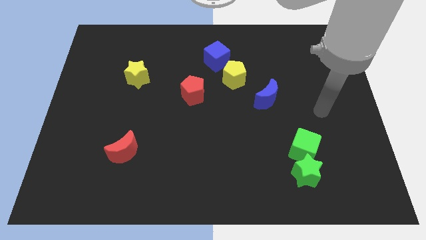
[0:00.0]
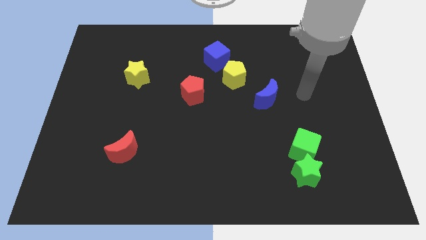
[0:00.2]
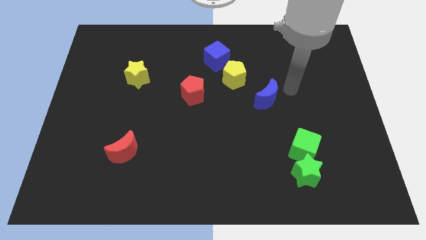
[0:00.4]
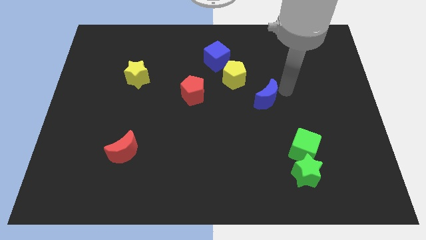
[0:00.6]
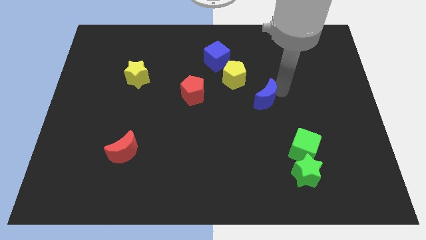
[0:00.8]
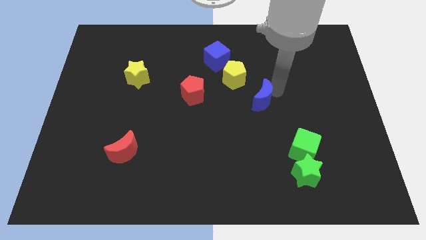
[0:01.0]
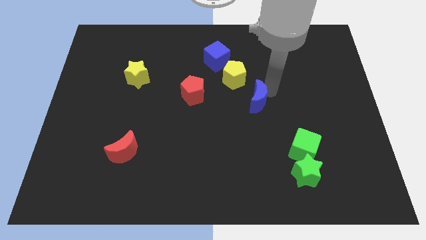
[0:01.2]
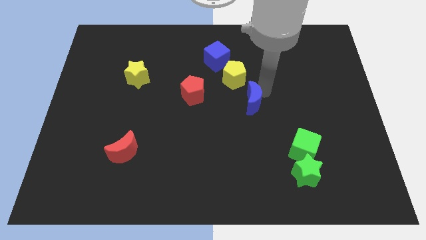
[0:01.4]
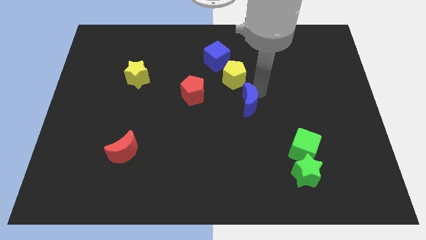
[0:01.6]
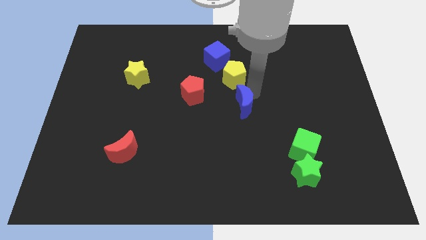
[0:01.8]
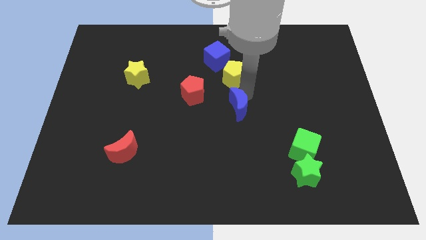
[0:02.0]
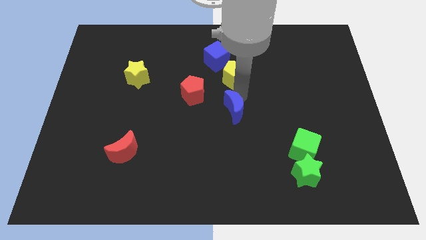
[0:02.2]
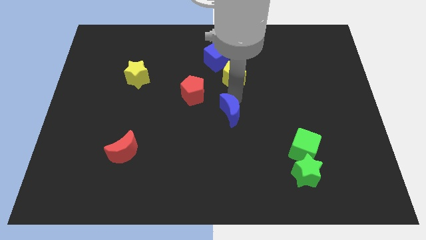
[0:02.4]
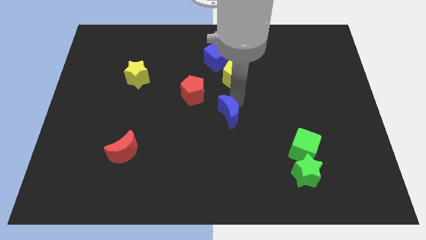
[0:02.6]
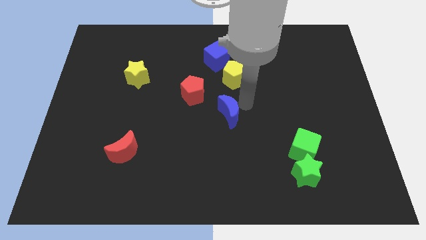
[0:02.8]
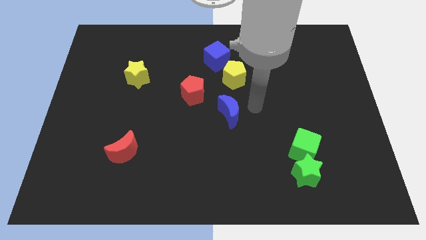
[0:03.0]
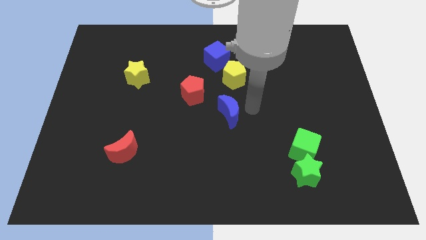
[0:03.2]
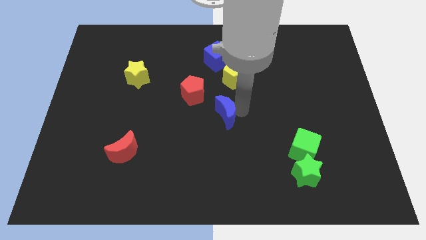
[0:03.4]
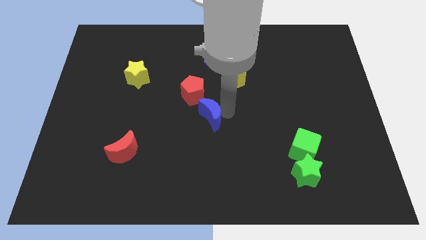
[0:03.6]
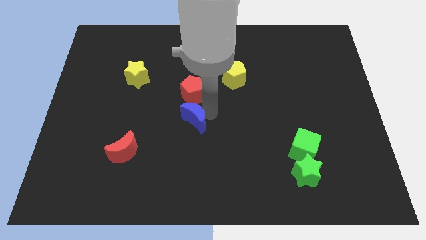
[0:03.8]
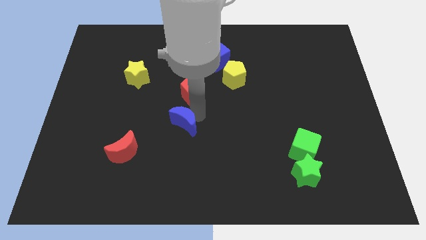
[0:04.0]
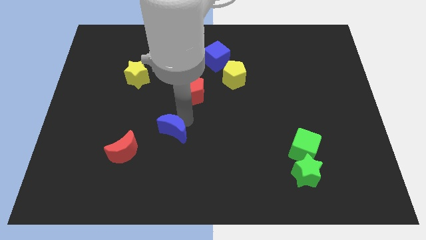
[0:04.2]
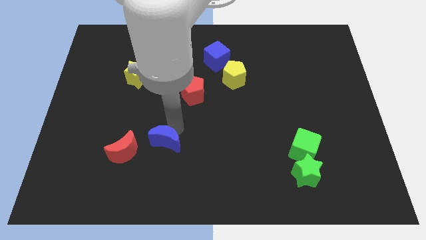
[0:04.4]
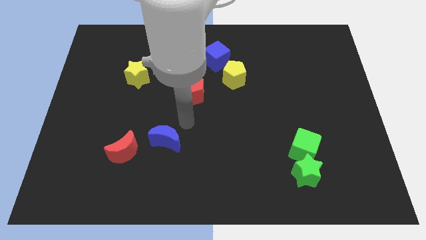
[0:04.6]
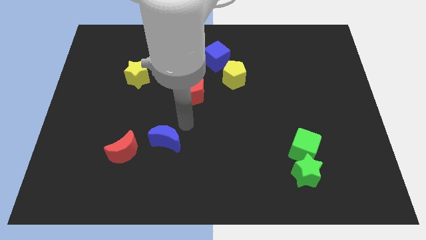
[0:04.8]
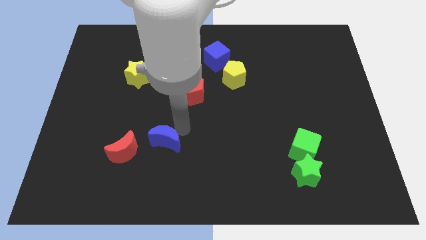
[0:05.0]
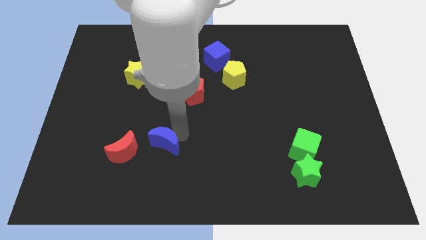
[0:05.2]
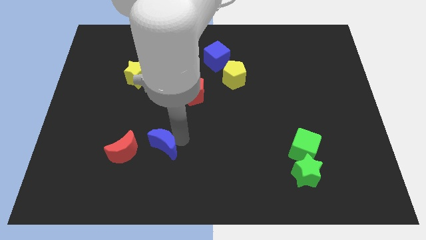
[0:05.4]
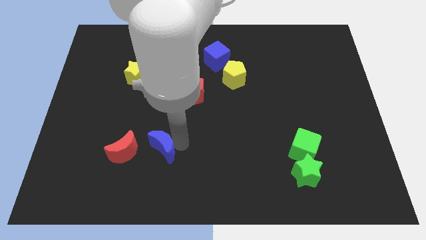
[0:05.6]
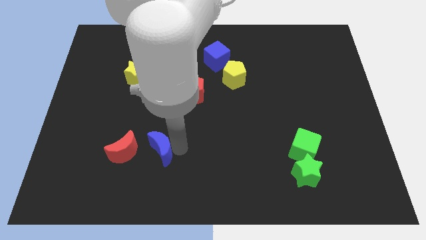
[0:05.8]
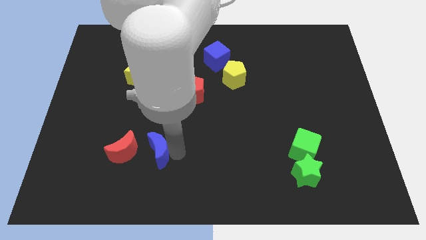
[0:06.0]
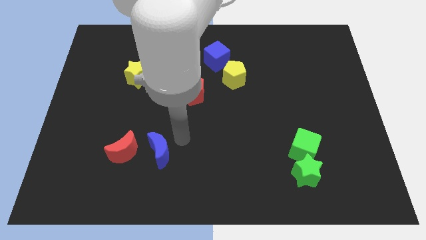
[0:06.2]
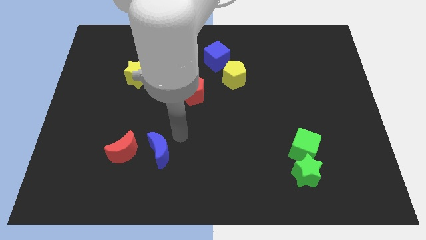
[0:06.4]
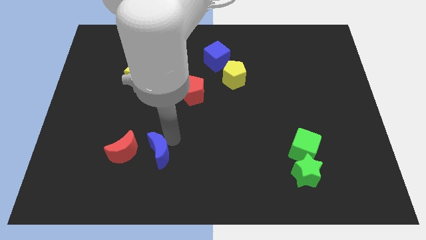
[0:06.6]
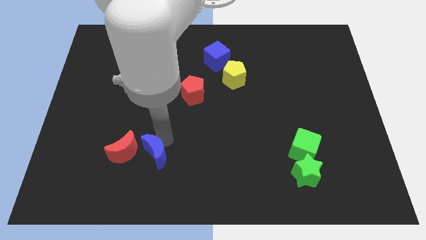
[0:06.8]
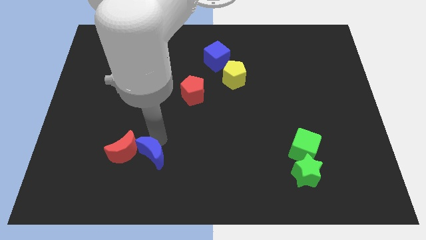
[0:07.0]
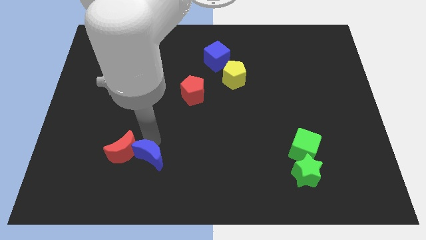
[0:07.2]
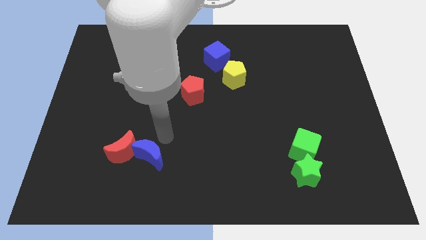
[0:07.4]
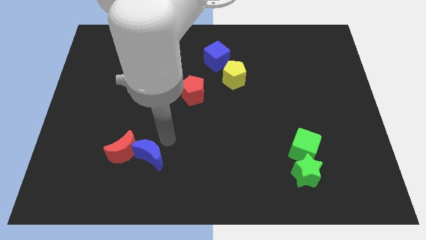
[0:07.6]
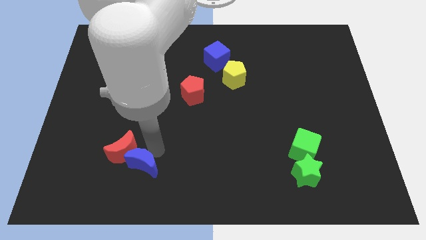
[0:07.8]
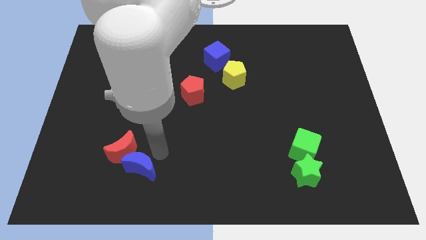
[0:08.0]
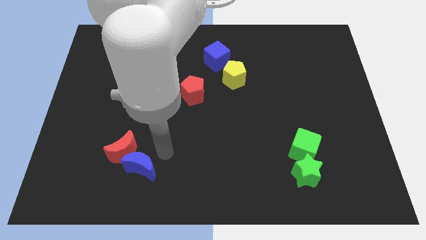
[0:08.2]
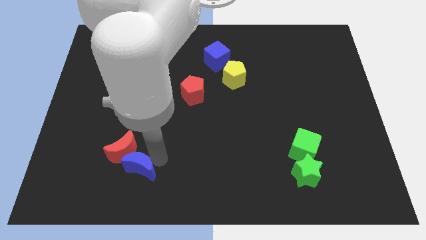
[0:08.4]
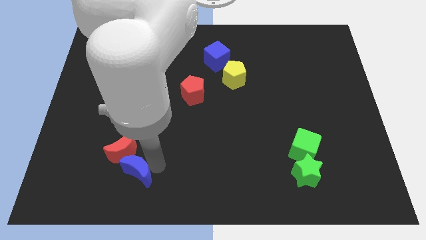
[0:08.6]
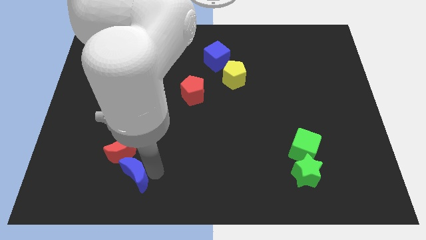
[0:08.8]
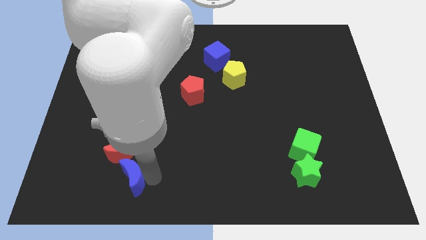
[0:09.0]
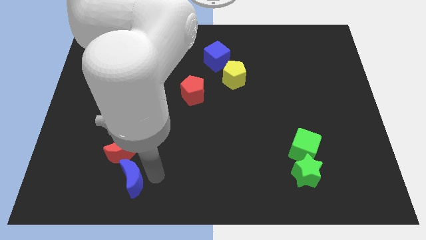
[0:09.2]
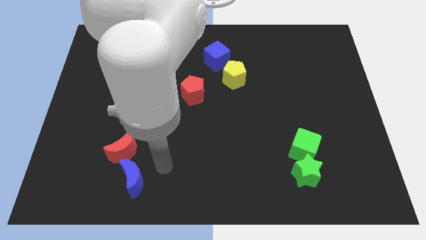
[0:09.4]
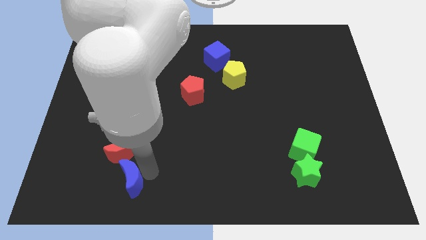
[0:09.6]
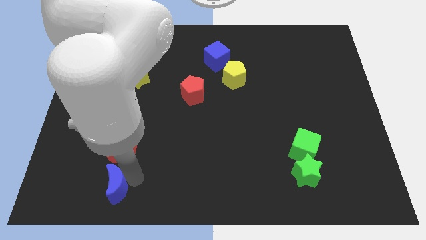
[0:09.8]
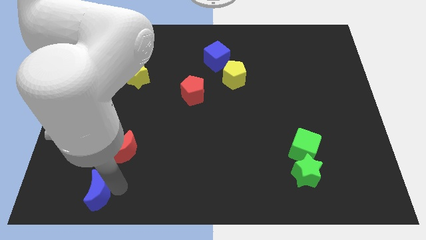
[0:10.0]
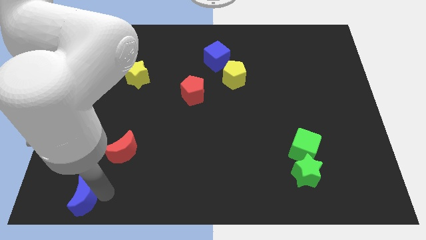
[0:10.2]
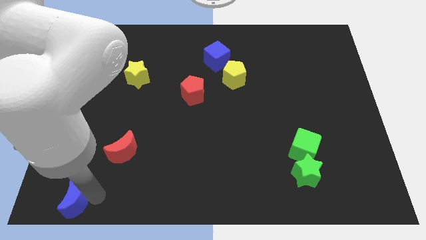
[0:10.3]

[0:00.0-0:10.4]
move the blue moon to the lower left corner

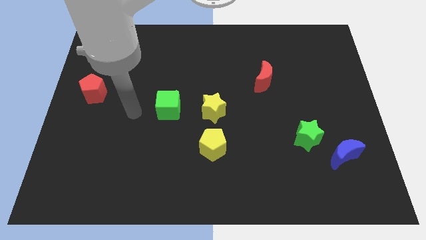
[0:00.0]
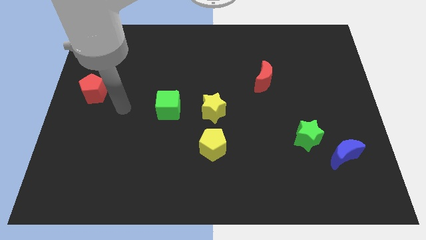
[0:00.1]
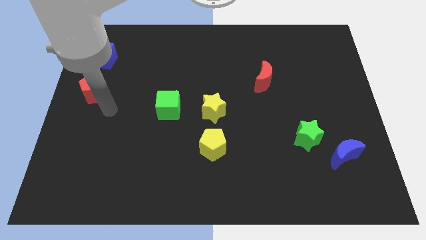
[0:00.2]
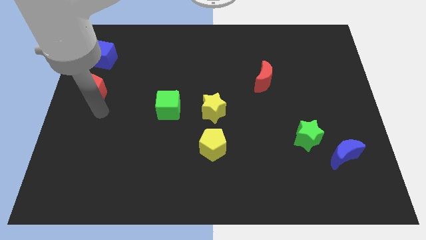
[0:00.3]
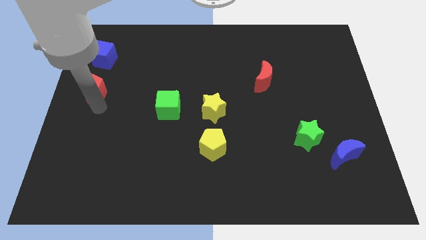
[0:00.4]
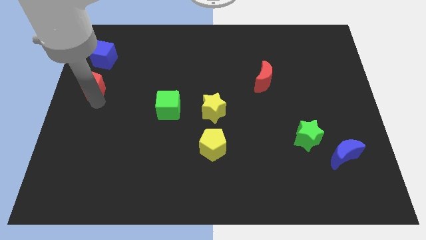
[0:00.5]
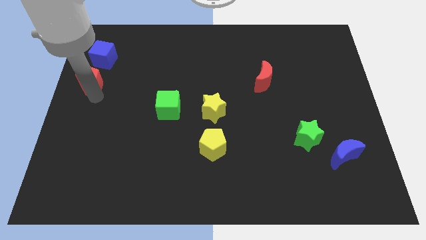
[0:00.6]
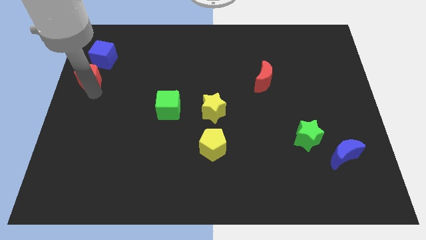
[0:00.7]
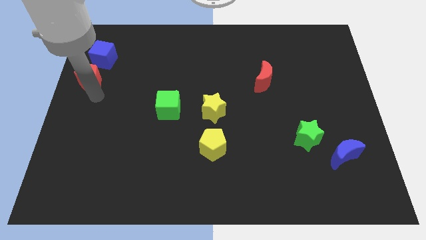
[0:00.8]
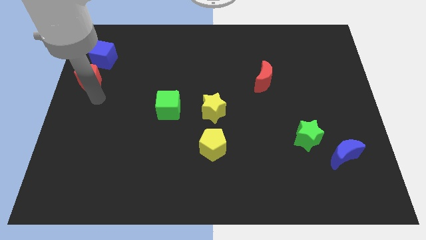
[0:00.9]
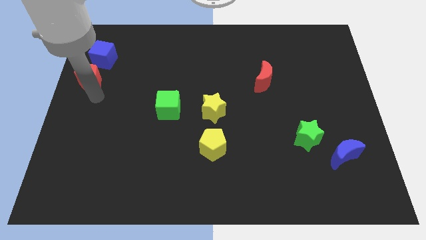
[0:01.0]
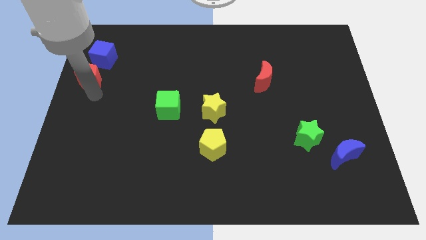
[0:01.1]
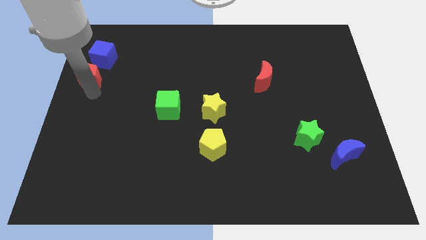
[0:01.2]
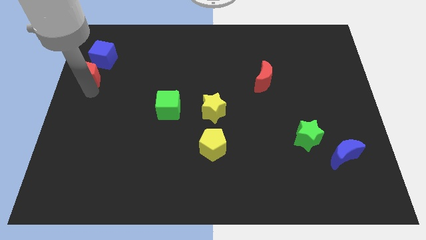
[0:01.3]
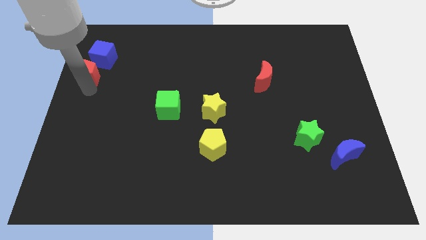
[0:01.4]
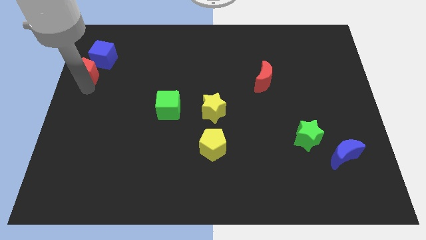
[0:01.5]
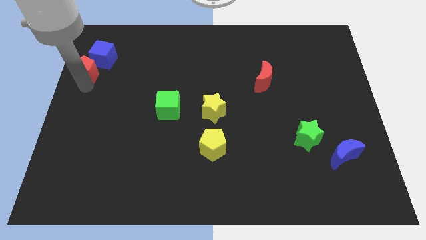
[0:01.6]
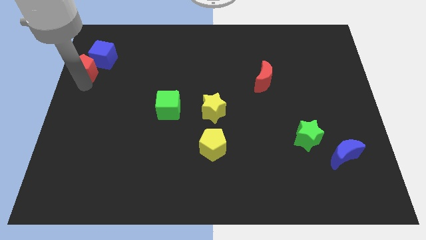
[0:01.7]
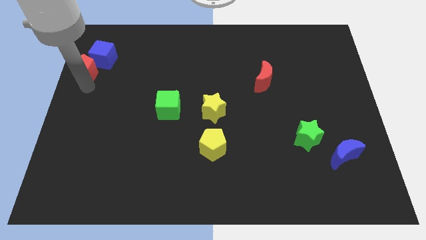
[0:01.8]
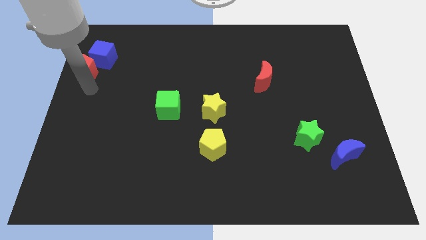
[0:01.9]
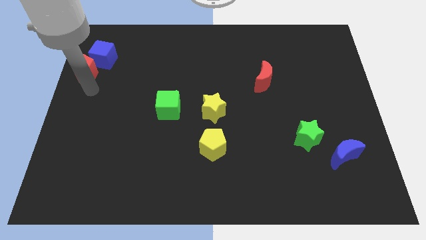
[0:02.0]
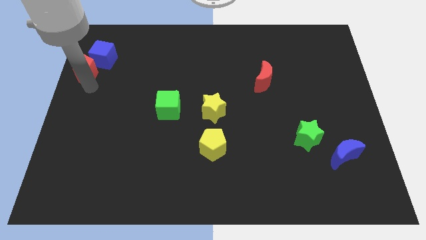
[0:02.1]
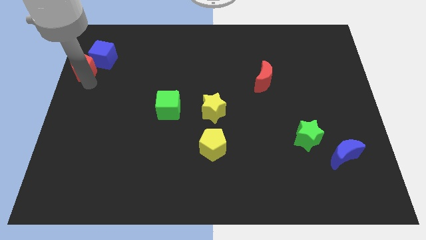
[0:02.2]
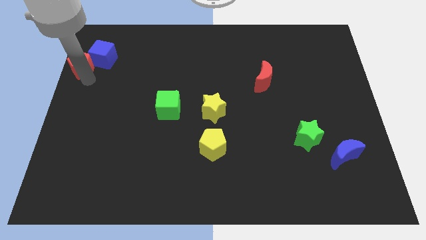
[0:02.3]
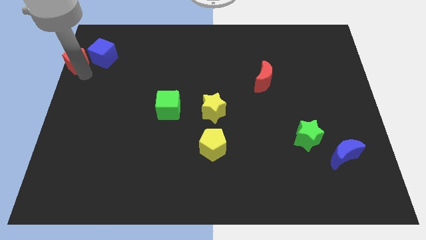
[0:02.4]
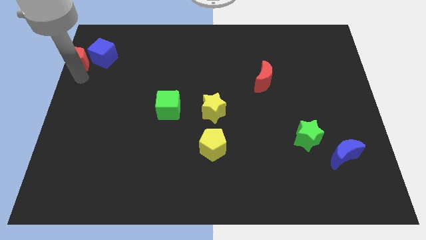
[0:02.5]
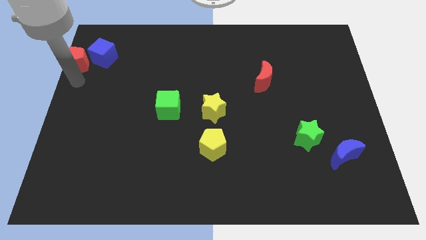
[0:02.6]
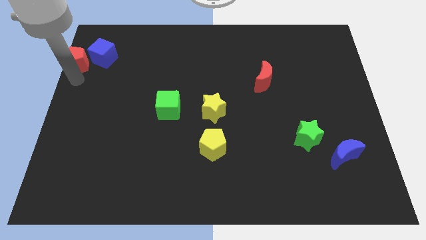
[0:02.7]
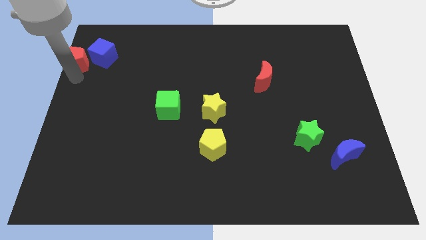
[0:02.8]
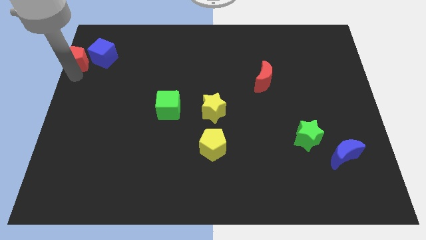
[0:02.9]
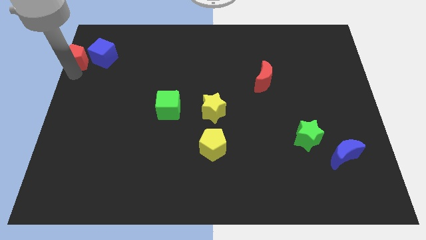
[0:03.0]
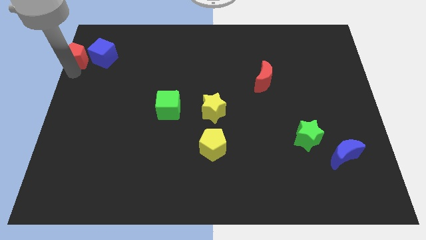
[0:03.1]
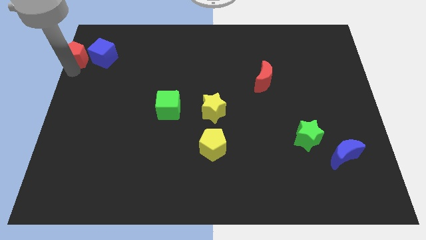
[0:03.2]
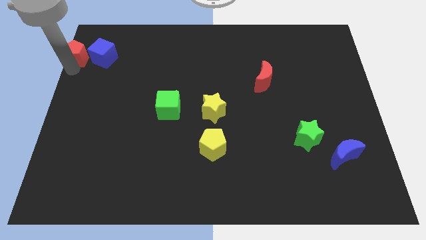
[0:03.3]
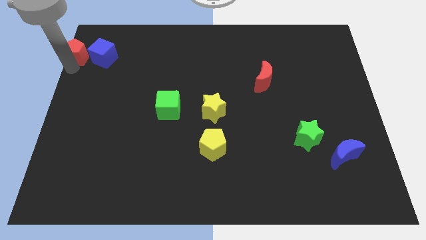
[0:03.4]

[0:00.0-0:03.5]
push the red pentagon to the top left corner
